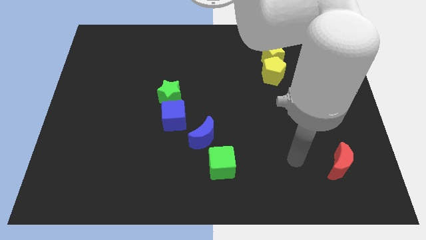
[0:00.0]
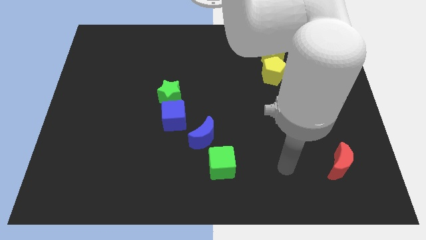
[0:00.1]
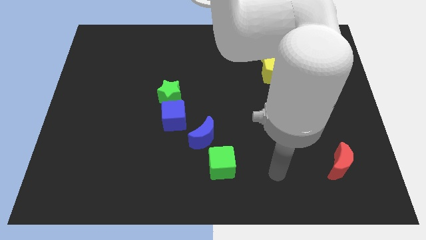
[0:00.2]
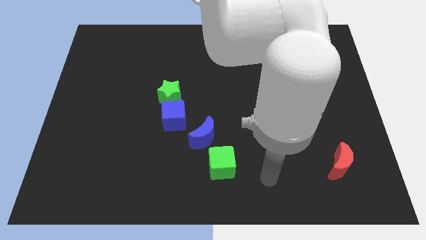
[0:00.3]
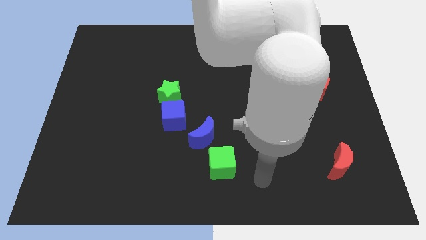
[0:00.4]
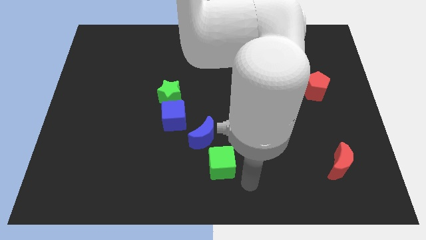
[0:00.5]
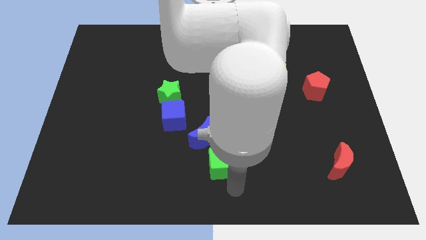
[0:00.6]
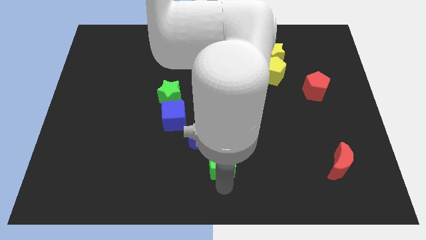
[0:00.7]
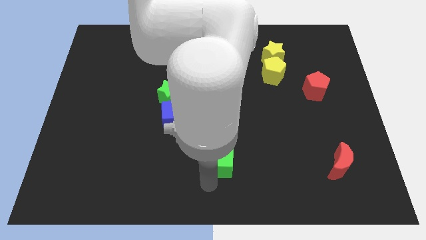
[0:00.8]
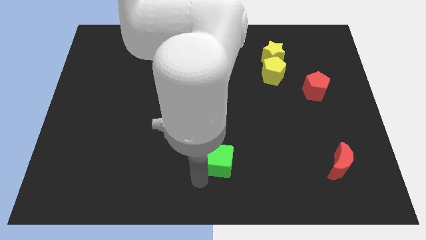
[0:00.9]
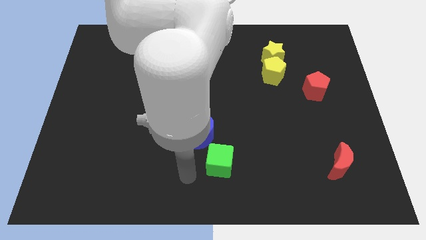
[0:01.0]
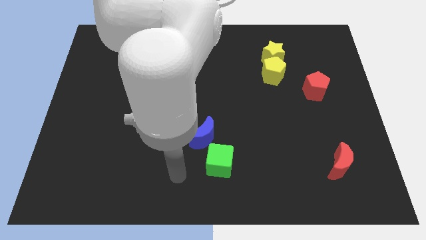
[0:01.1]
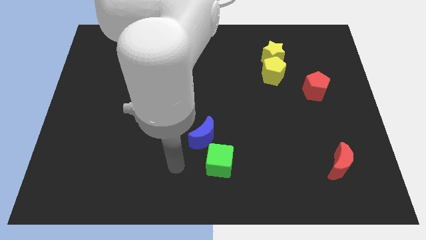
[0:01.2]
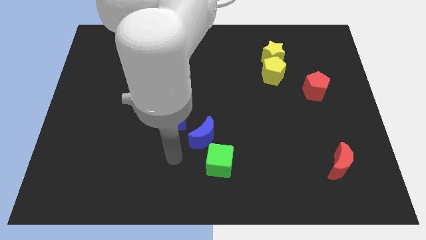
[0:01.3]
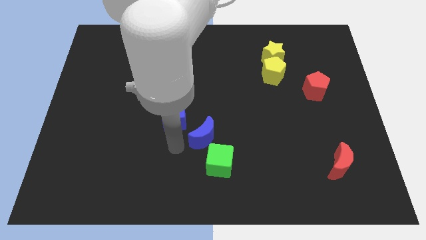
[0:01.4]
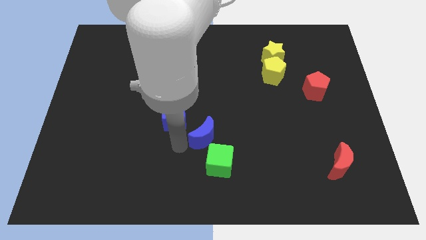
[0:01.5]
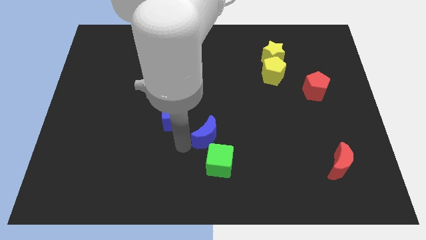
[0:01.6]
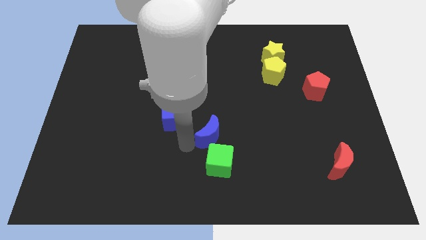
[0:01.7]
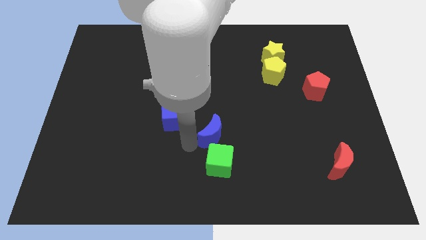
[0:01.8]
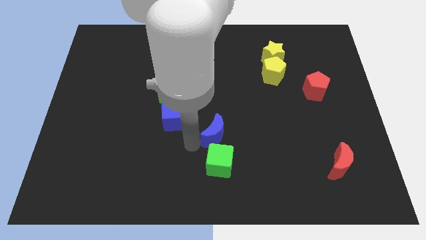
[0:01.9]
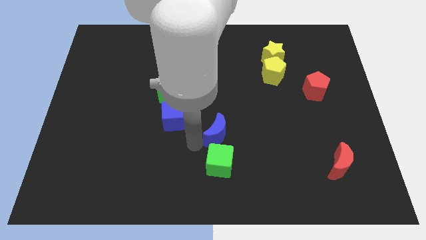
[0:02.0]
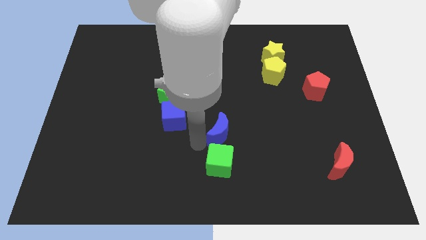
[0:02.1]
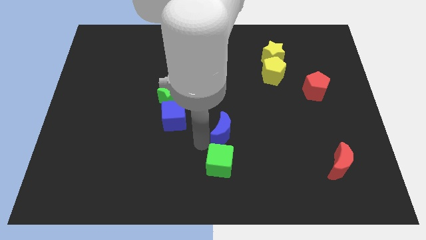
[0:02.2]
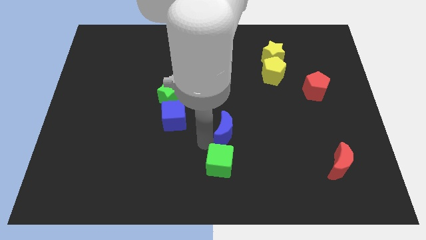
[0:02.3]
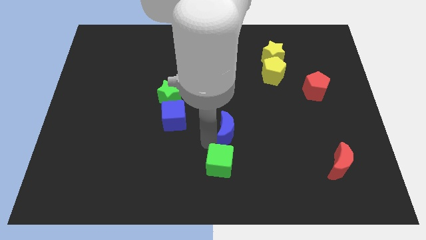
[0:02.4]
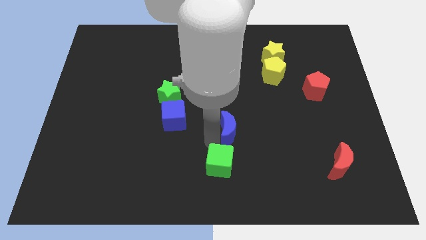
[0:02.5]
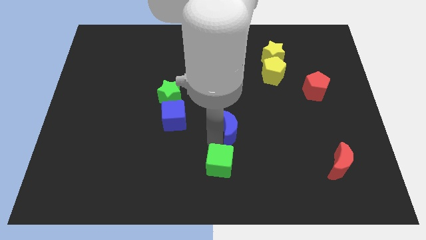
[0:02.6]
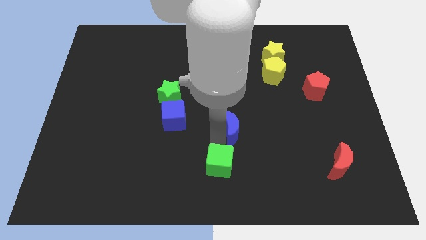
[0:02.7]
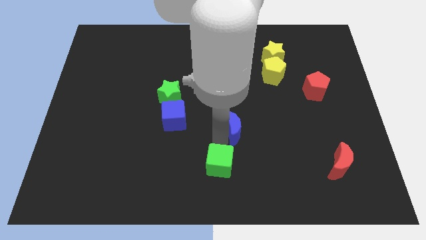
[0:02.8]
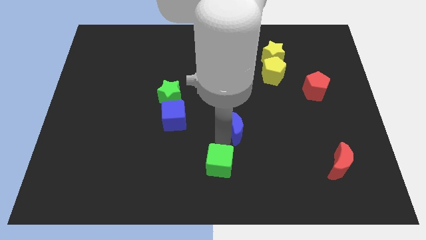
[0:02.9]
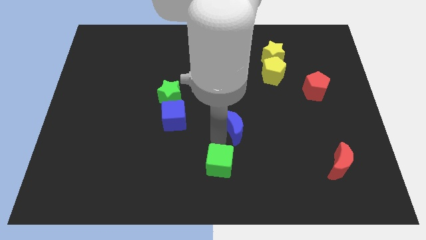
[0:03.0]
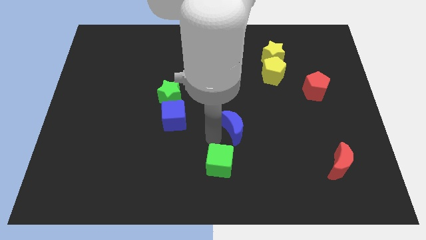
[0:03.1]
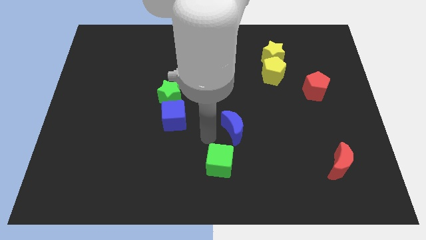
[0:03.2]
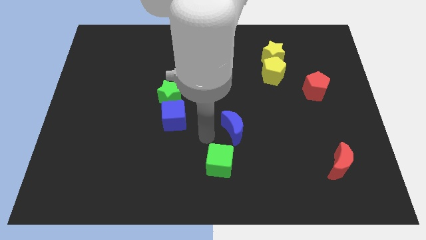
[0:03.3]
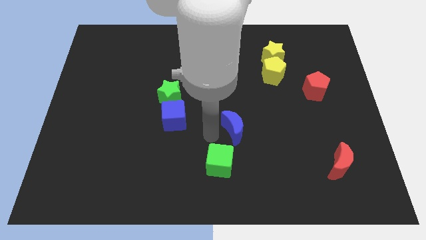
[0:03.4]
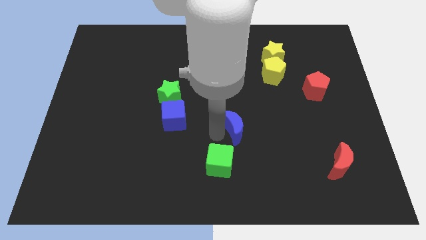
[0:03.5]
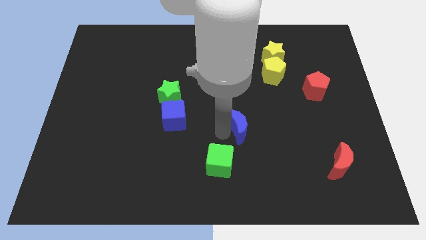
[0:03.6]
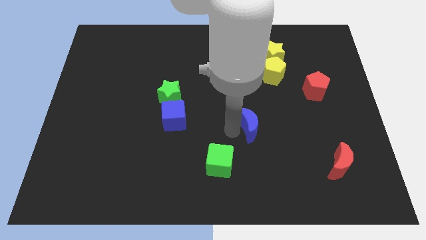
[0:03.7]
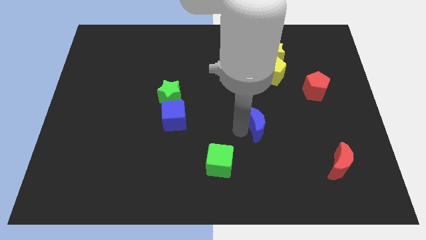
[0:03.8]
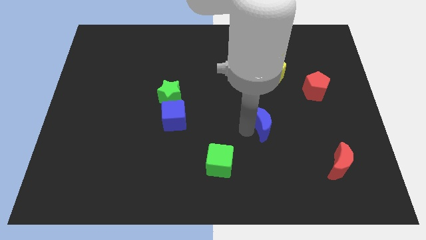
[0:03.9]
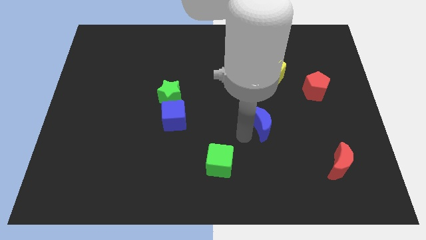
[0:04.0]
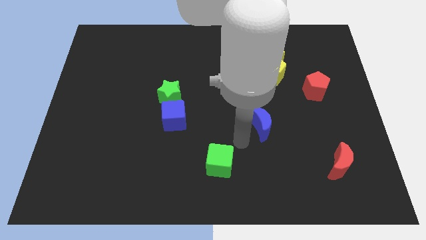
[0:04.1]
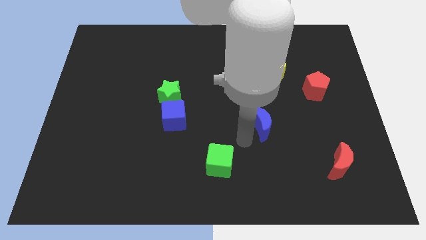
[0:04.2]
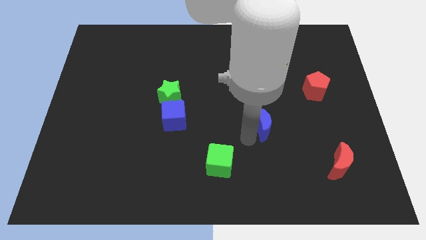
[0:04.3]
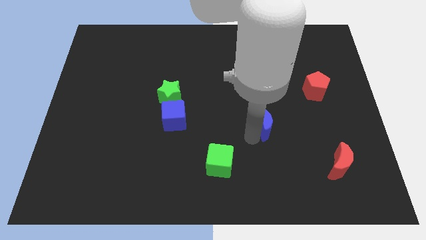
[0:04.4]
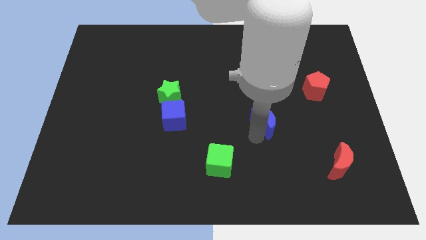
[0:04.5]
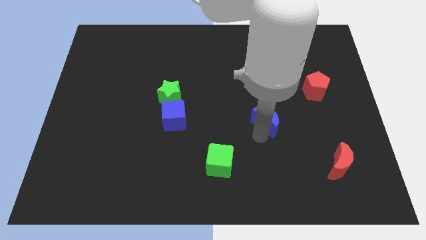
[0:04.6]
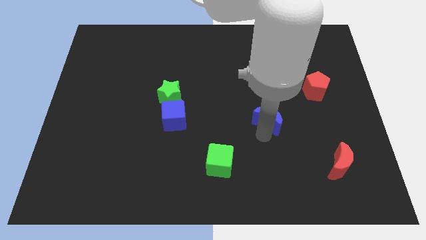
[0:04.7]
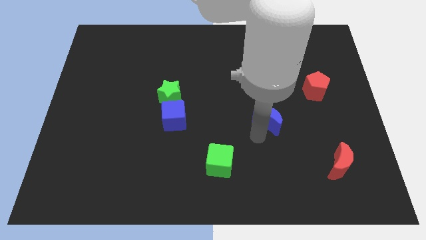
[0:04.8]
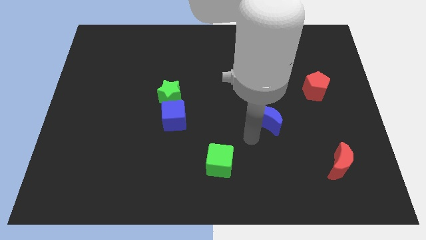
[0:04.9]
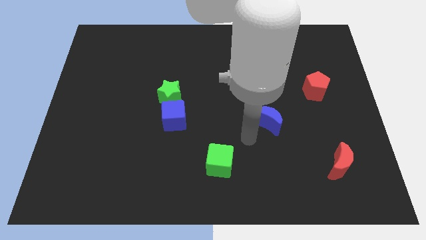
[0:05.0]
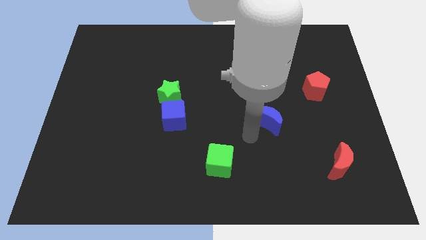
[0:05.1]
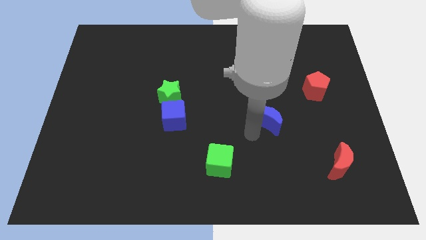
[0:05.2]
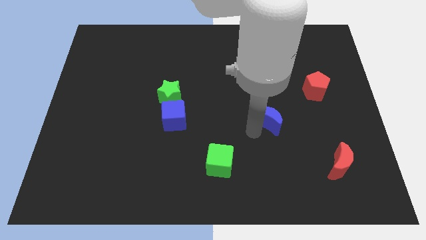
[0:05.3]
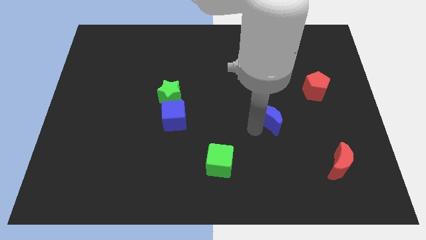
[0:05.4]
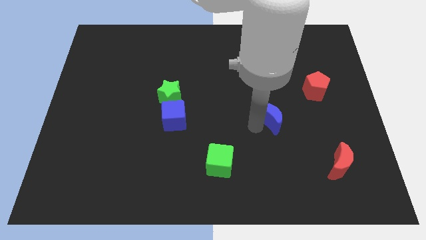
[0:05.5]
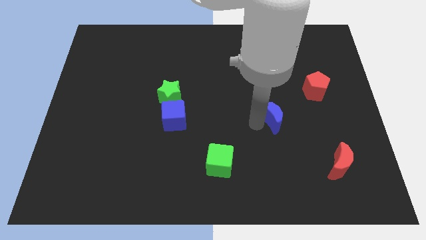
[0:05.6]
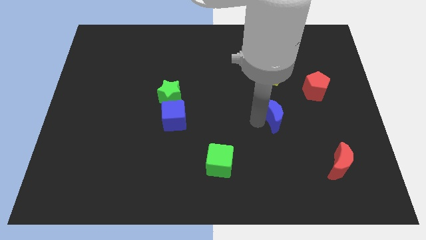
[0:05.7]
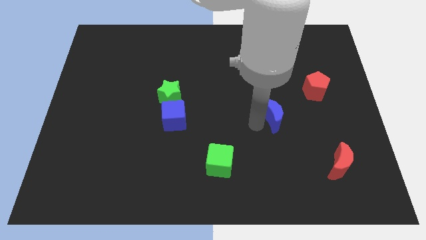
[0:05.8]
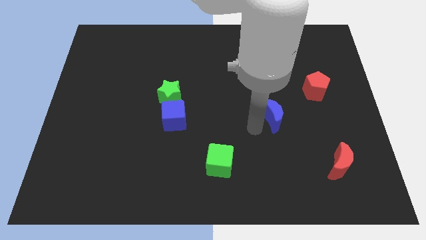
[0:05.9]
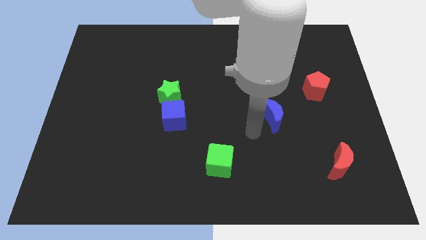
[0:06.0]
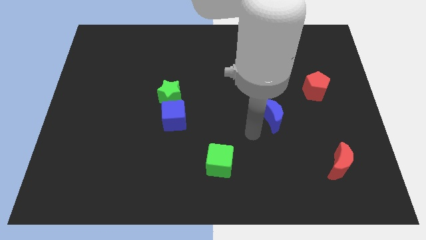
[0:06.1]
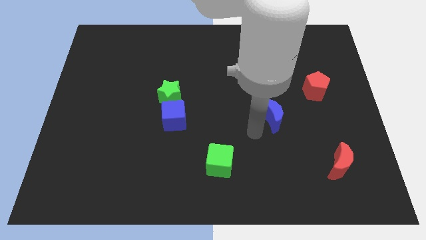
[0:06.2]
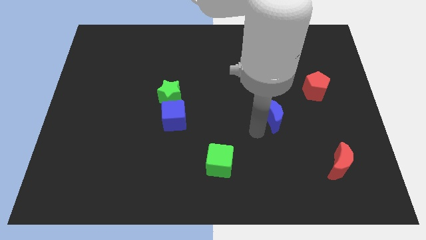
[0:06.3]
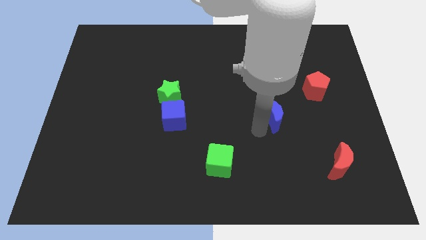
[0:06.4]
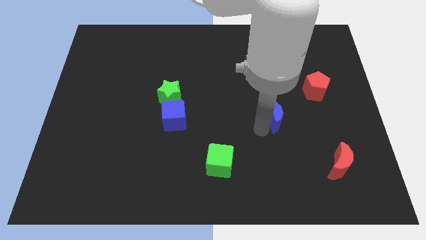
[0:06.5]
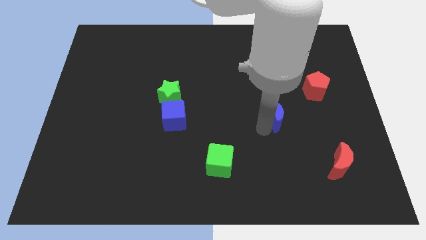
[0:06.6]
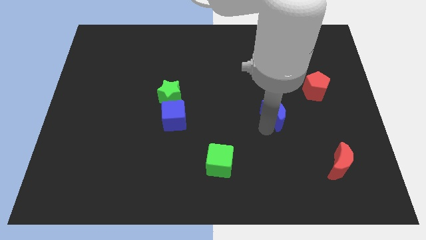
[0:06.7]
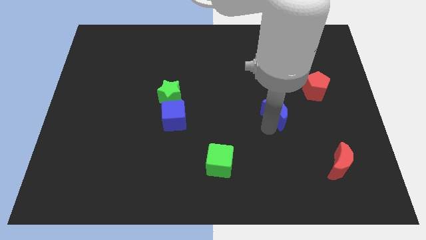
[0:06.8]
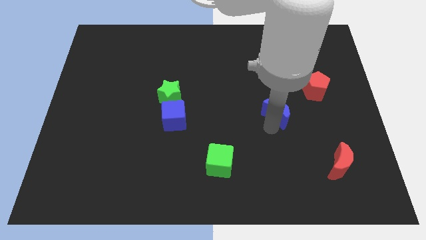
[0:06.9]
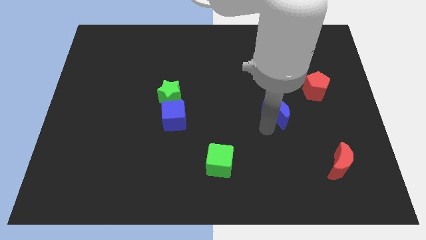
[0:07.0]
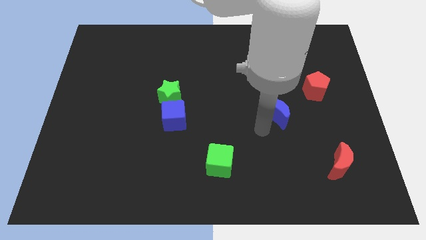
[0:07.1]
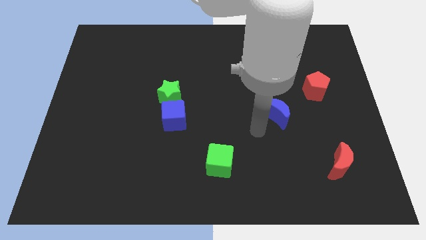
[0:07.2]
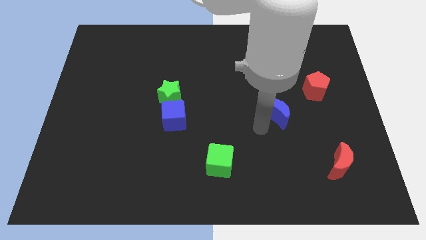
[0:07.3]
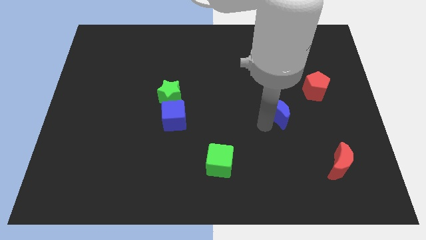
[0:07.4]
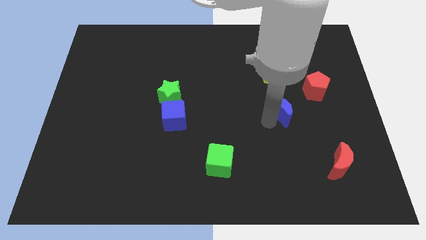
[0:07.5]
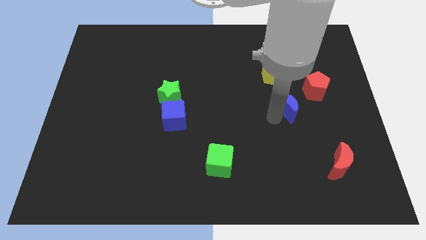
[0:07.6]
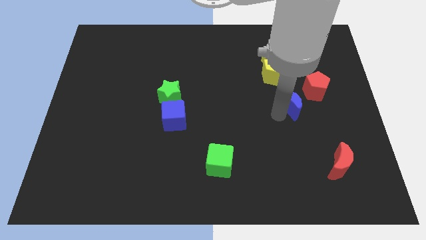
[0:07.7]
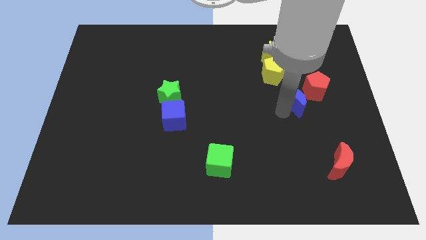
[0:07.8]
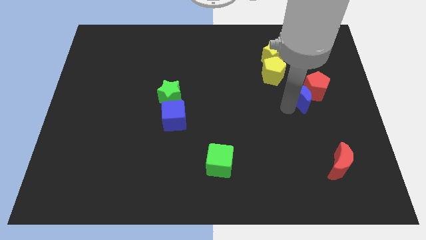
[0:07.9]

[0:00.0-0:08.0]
push the blue moon close to the red pentagon

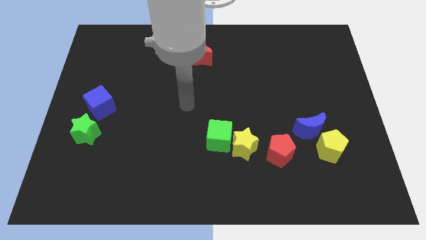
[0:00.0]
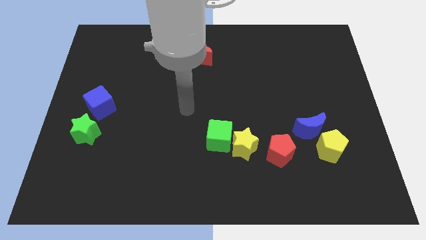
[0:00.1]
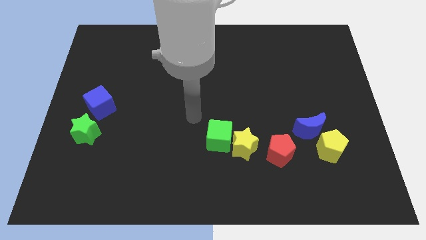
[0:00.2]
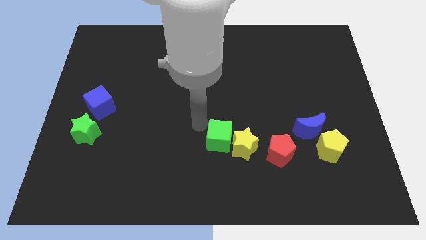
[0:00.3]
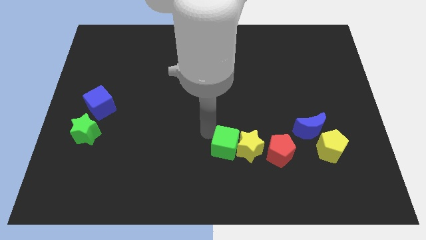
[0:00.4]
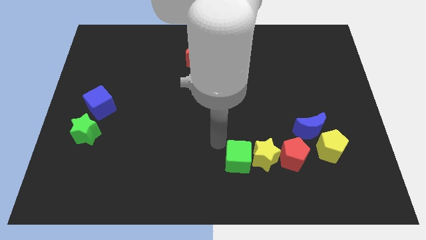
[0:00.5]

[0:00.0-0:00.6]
put the yellow star to the red pentagon
